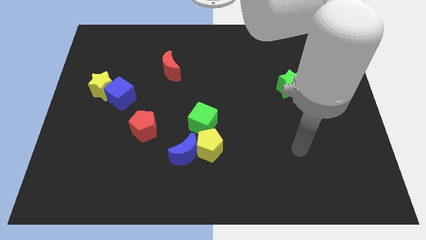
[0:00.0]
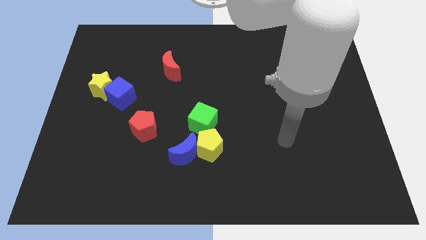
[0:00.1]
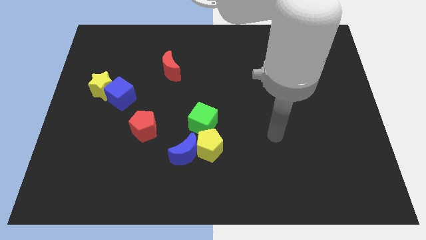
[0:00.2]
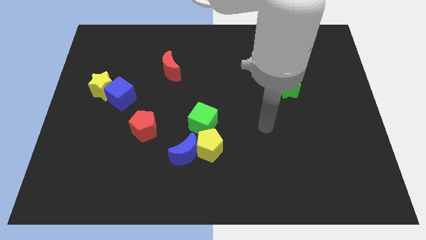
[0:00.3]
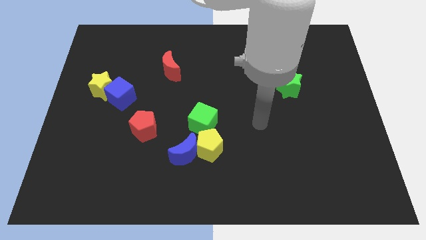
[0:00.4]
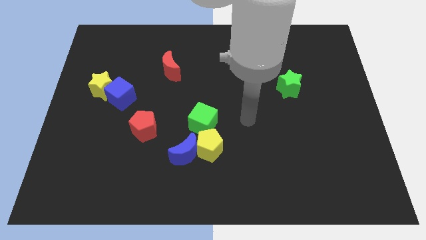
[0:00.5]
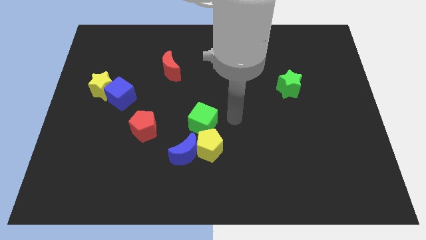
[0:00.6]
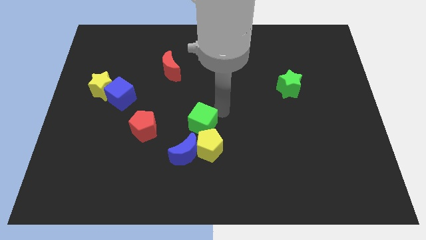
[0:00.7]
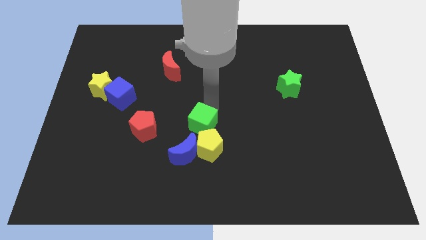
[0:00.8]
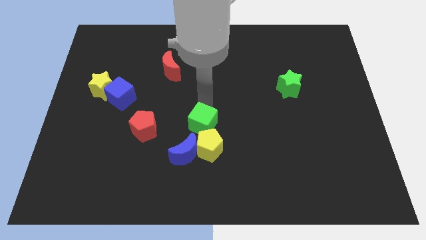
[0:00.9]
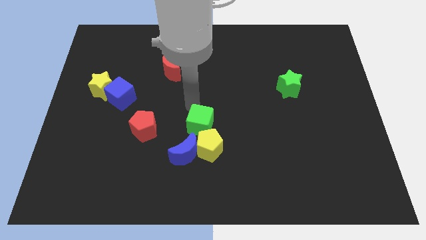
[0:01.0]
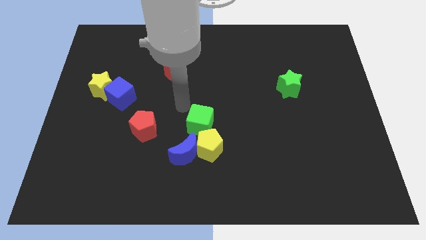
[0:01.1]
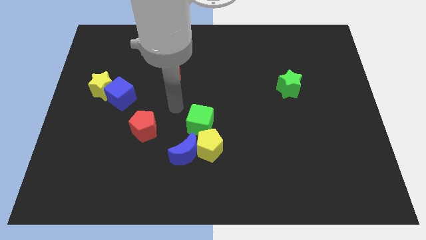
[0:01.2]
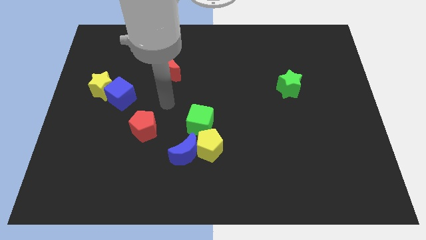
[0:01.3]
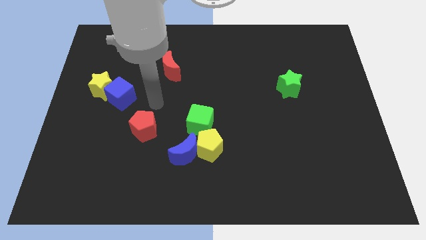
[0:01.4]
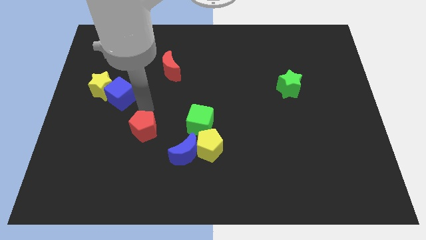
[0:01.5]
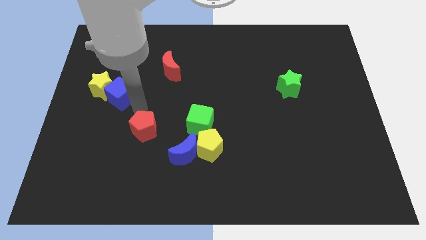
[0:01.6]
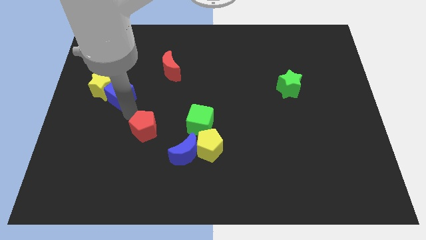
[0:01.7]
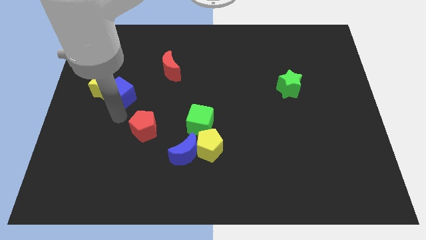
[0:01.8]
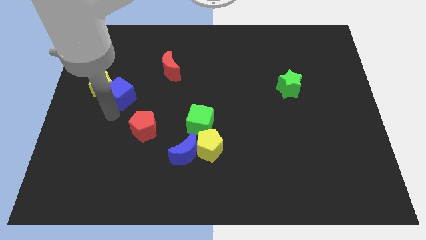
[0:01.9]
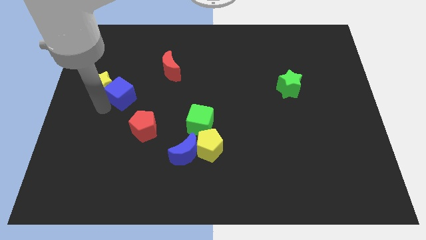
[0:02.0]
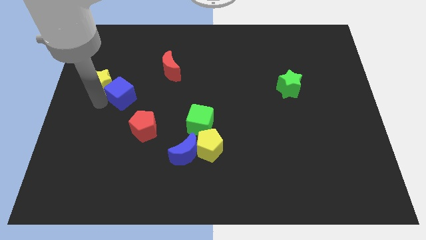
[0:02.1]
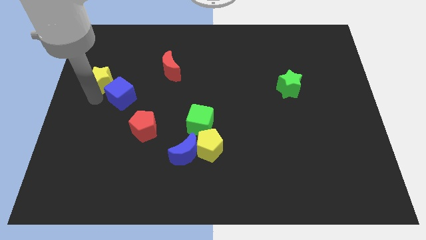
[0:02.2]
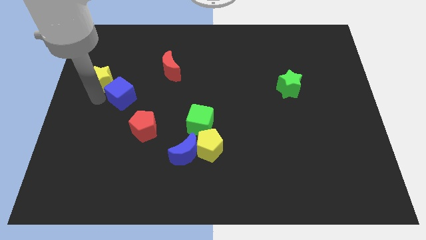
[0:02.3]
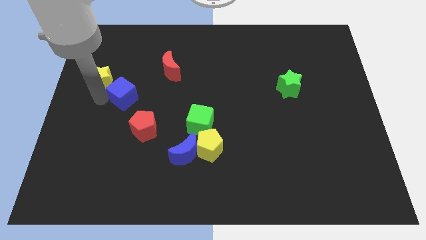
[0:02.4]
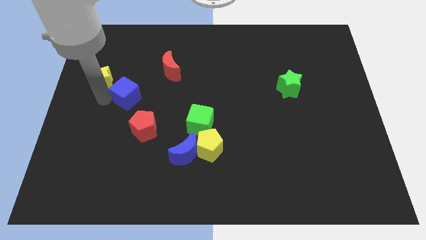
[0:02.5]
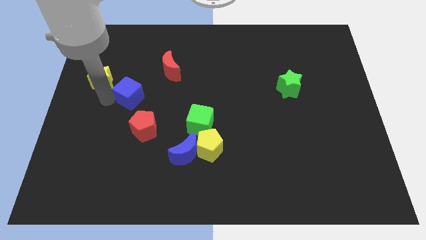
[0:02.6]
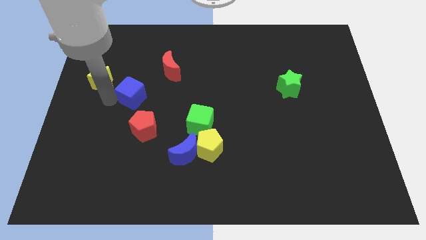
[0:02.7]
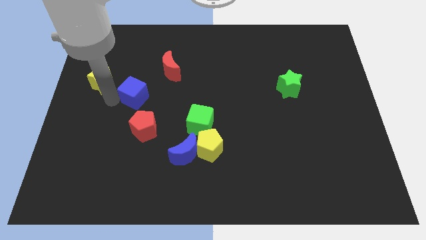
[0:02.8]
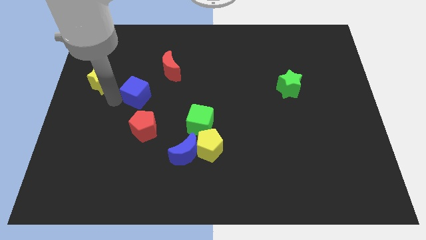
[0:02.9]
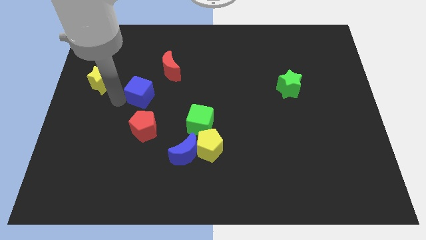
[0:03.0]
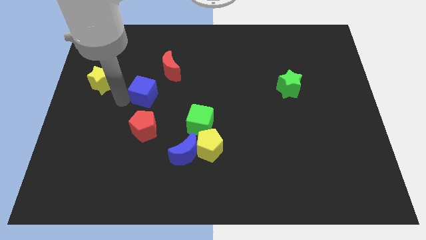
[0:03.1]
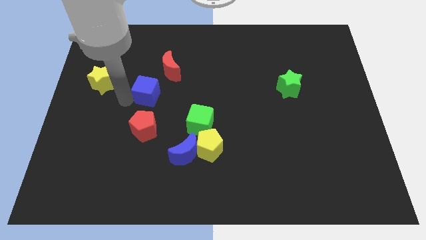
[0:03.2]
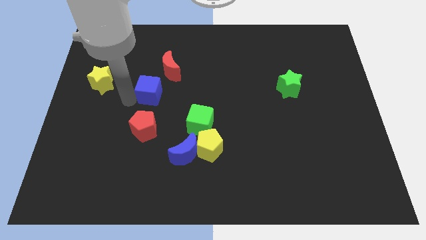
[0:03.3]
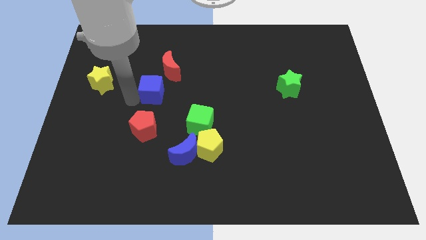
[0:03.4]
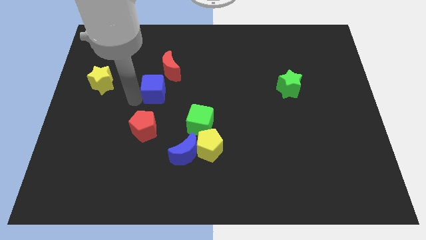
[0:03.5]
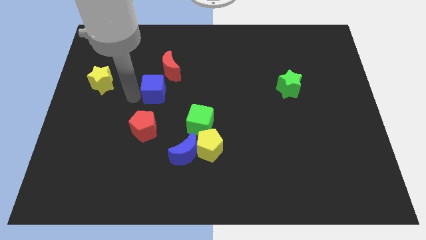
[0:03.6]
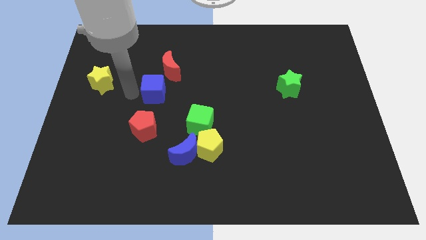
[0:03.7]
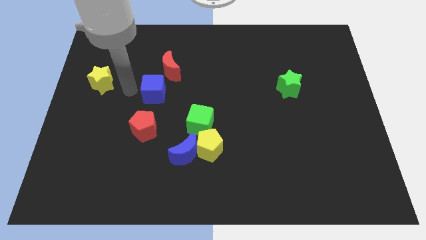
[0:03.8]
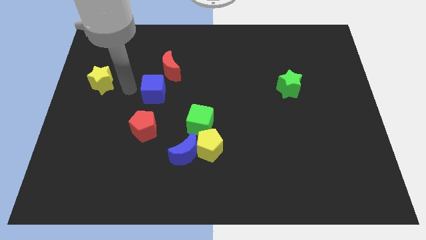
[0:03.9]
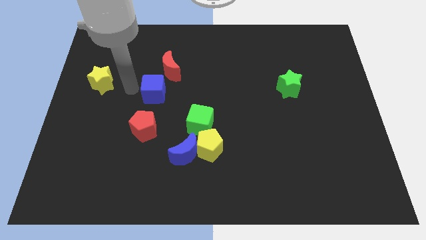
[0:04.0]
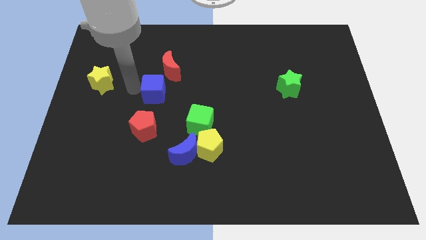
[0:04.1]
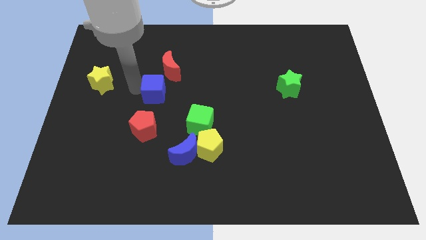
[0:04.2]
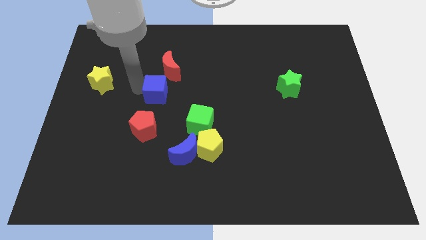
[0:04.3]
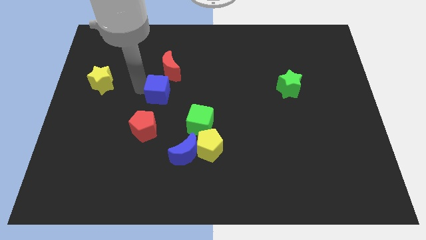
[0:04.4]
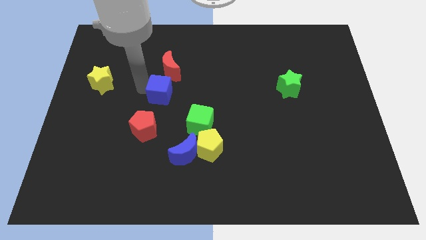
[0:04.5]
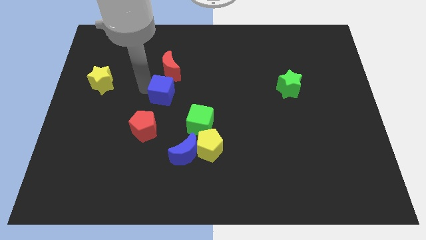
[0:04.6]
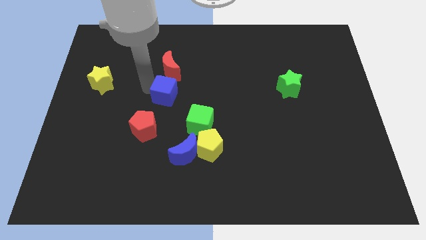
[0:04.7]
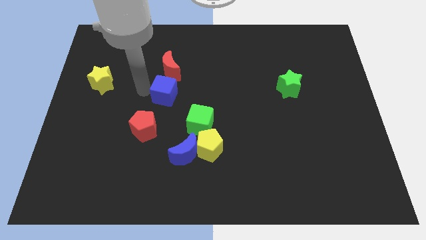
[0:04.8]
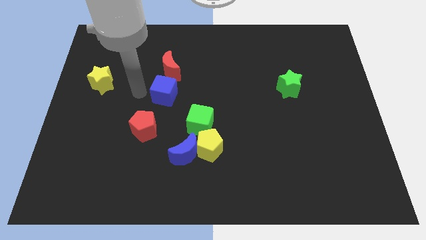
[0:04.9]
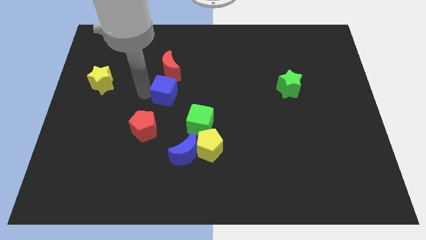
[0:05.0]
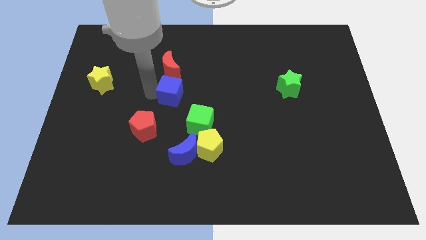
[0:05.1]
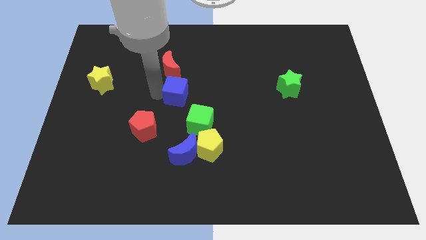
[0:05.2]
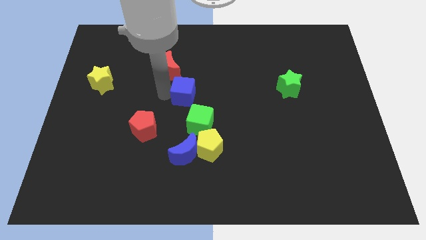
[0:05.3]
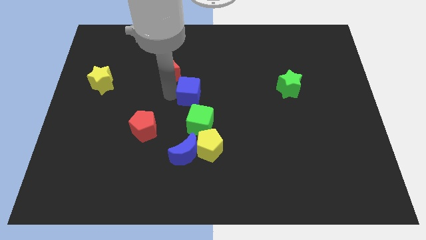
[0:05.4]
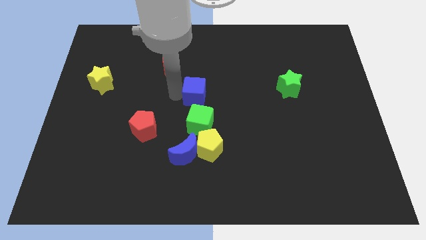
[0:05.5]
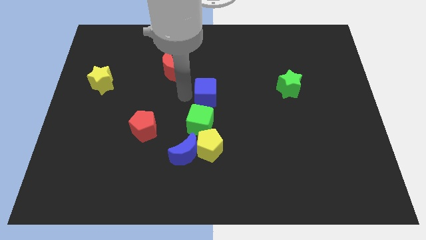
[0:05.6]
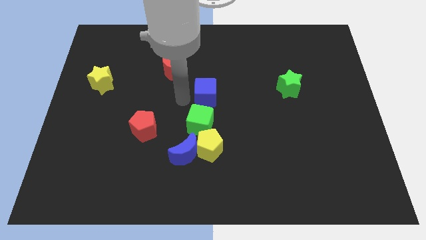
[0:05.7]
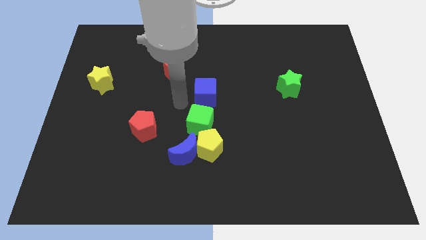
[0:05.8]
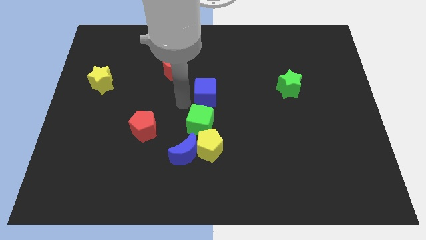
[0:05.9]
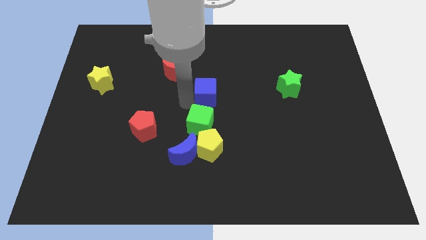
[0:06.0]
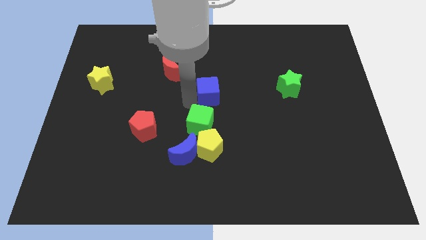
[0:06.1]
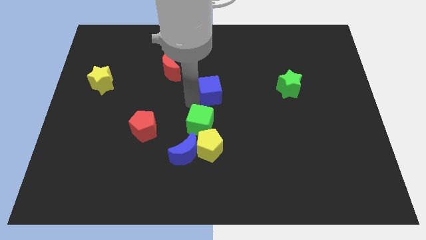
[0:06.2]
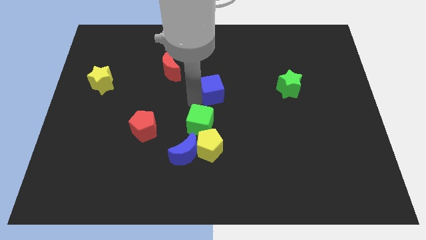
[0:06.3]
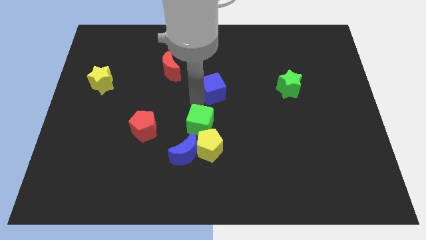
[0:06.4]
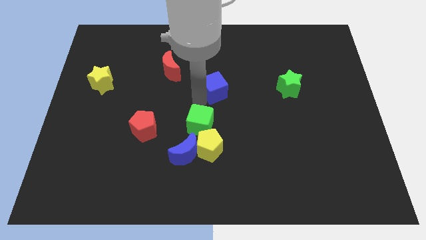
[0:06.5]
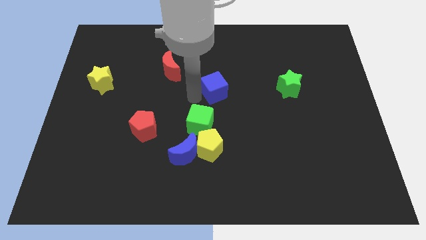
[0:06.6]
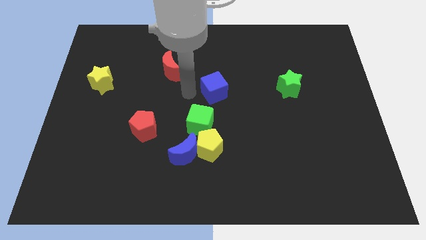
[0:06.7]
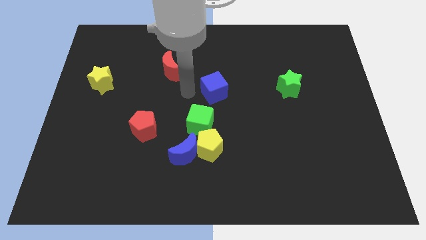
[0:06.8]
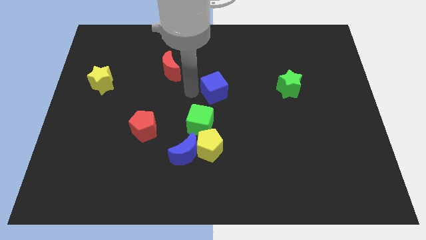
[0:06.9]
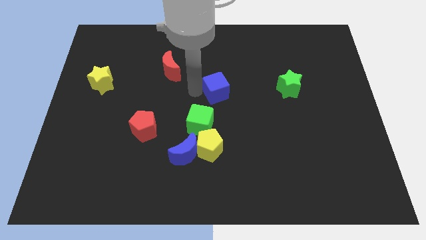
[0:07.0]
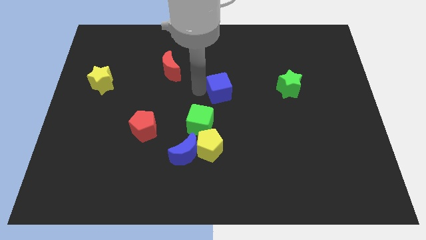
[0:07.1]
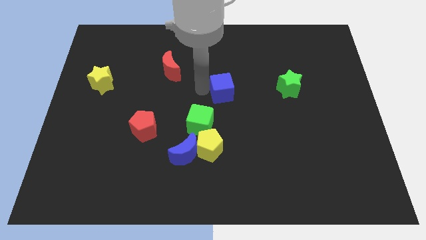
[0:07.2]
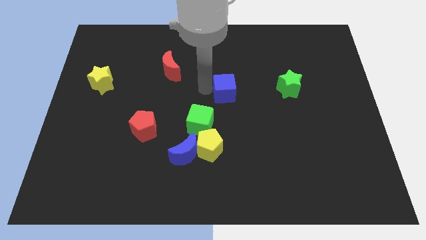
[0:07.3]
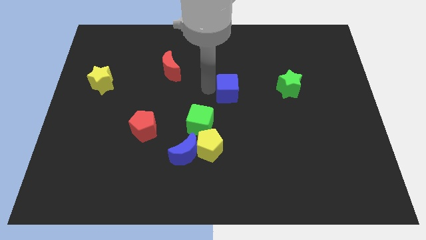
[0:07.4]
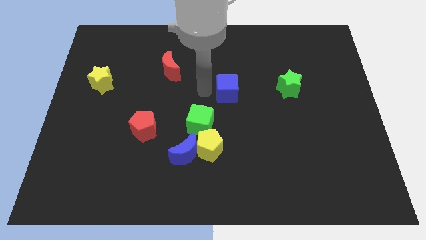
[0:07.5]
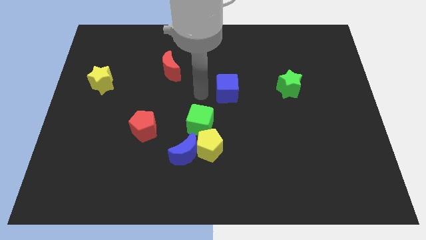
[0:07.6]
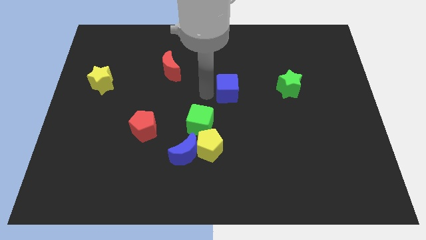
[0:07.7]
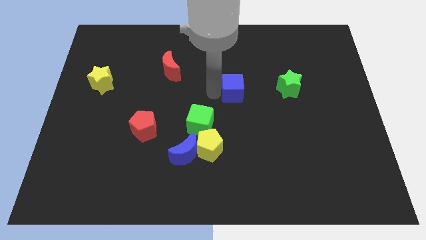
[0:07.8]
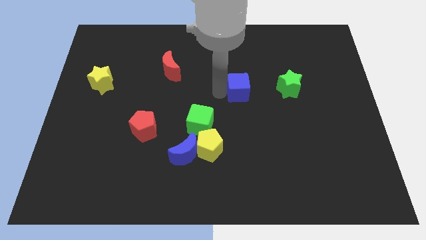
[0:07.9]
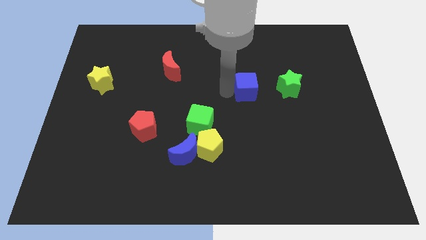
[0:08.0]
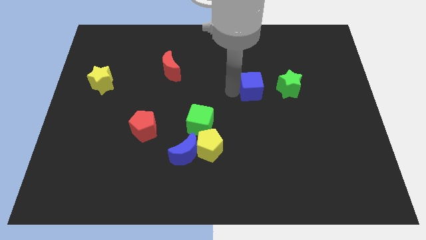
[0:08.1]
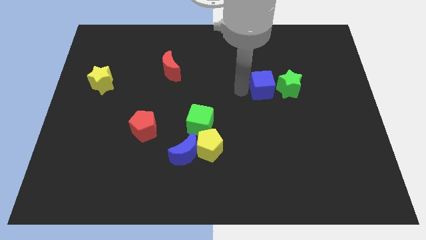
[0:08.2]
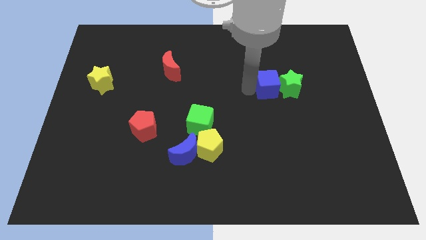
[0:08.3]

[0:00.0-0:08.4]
slide the blue cube close to the green star
